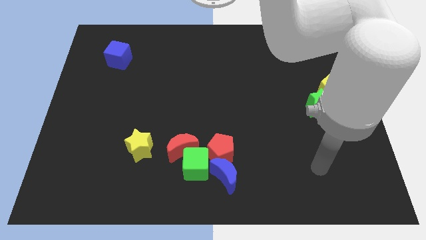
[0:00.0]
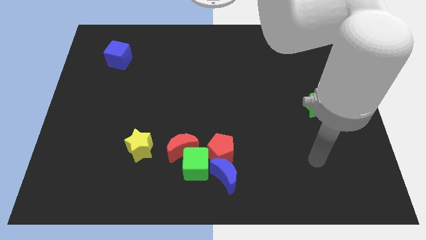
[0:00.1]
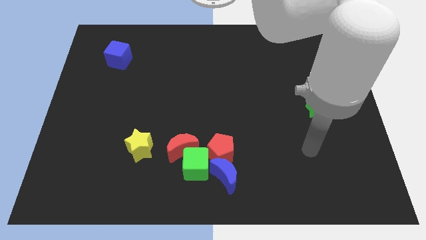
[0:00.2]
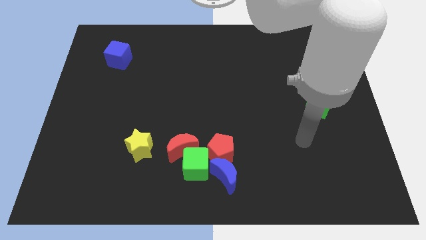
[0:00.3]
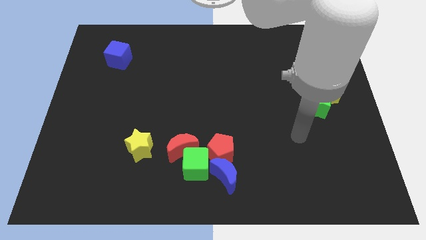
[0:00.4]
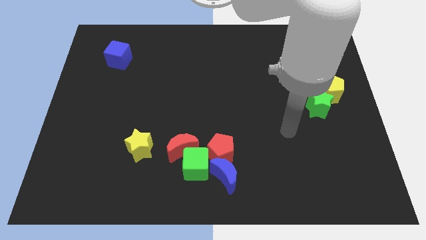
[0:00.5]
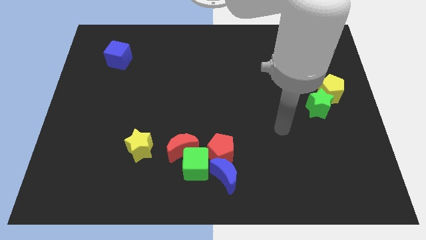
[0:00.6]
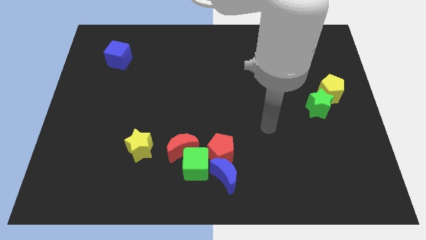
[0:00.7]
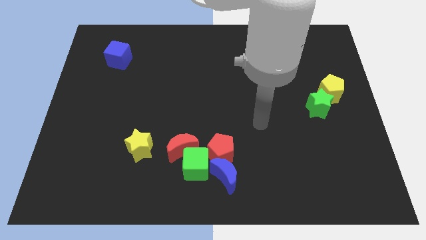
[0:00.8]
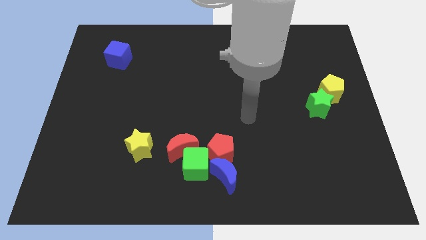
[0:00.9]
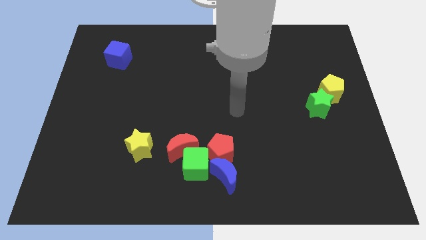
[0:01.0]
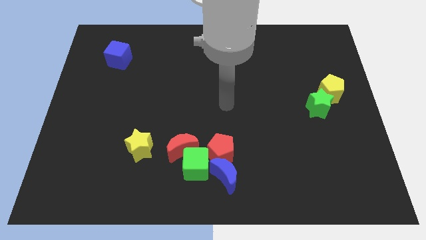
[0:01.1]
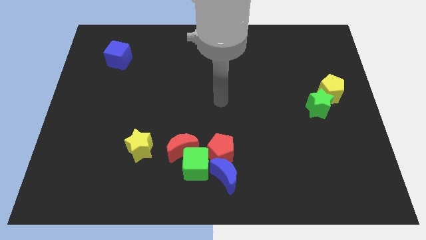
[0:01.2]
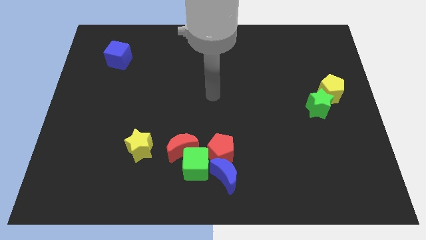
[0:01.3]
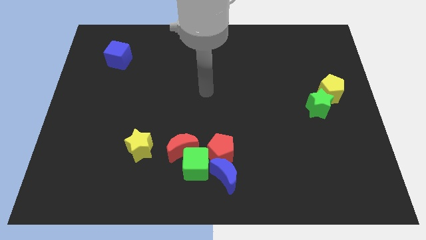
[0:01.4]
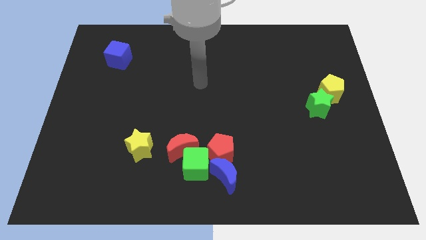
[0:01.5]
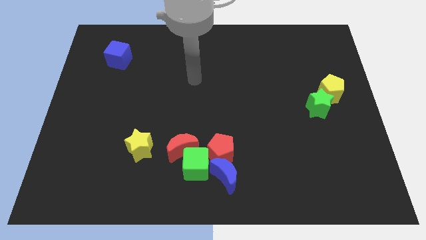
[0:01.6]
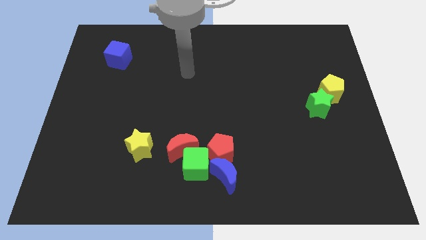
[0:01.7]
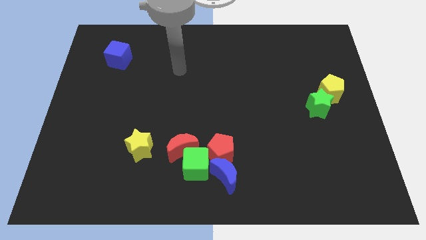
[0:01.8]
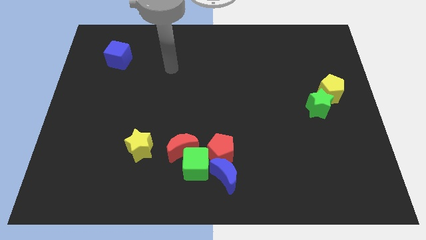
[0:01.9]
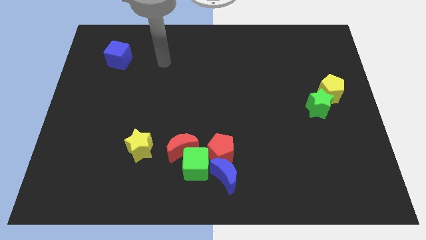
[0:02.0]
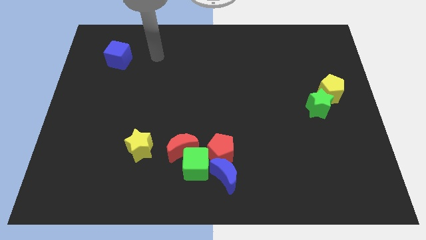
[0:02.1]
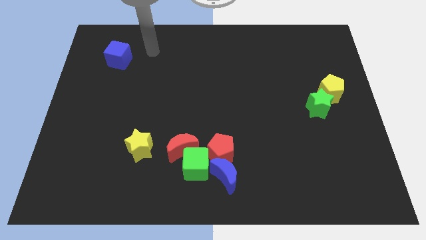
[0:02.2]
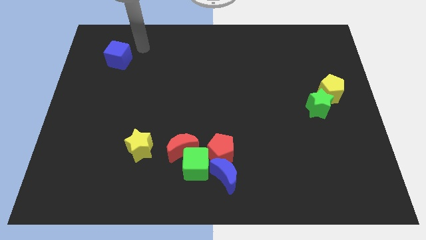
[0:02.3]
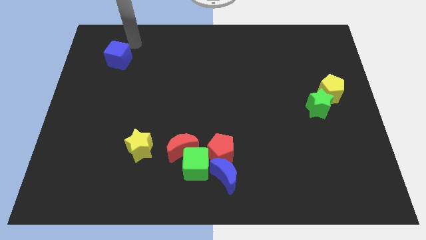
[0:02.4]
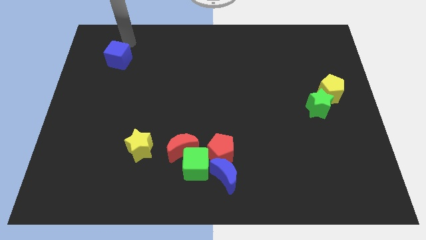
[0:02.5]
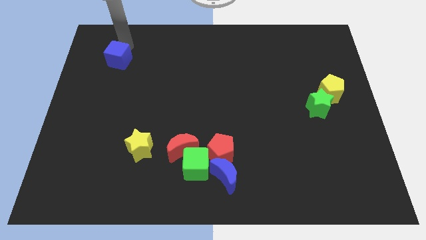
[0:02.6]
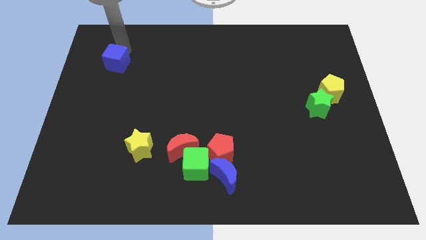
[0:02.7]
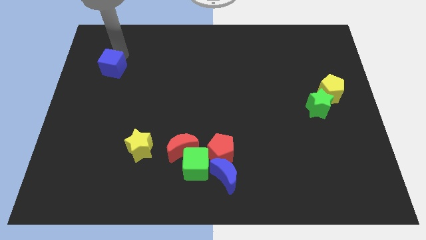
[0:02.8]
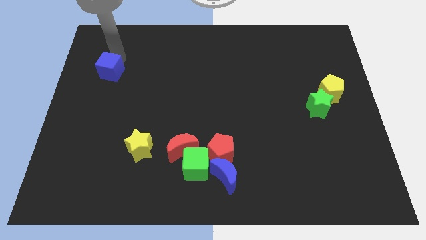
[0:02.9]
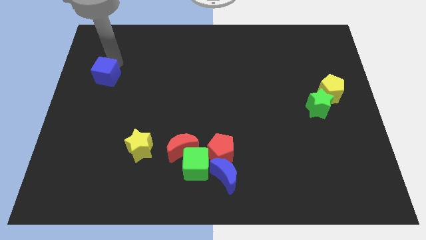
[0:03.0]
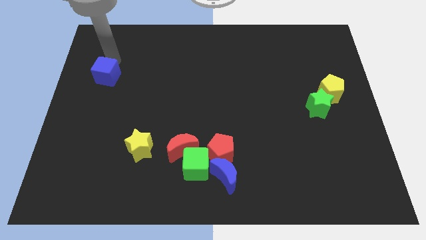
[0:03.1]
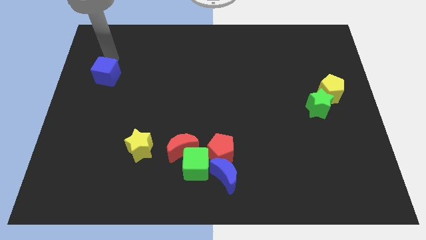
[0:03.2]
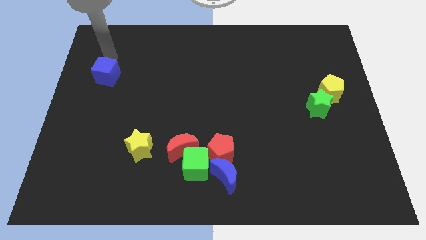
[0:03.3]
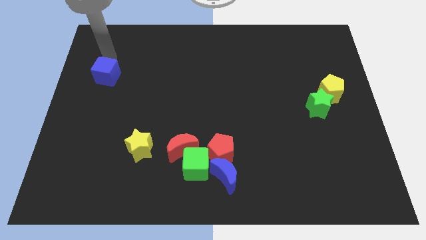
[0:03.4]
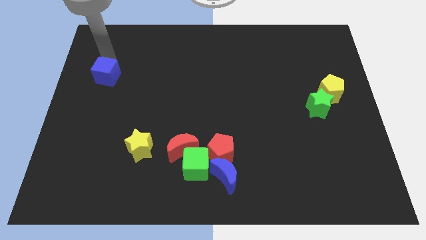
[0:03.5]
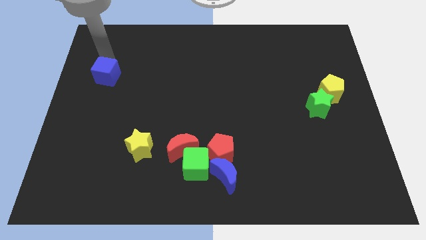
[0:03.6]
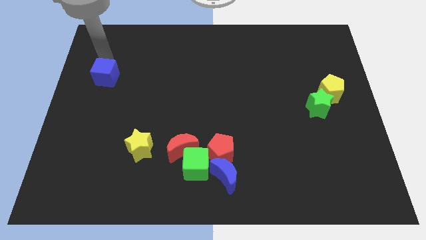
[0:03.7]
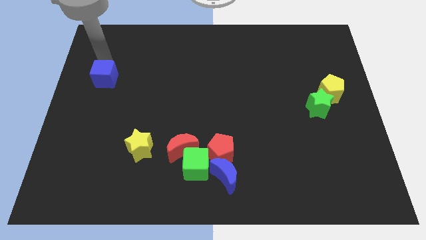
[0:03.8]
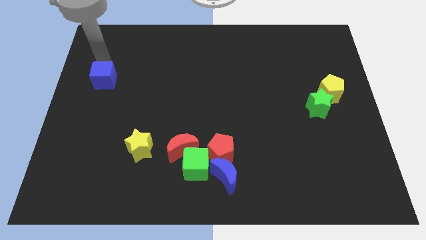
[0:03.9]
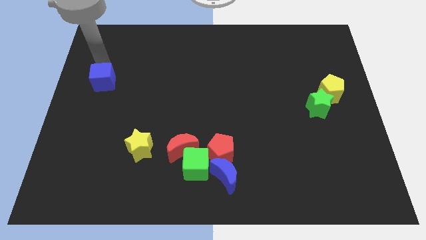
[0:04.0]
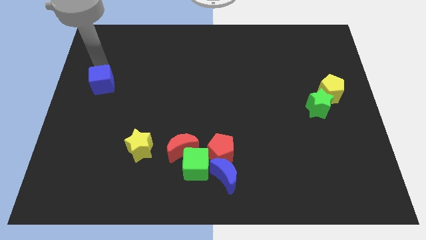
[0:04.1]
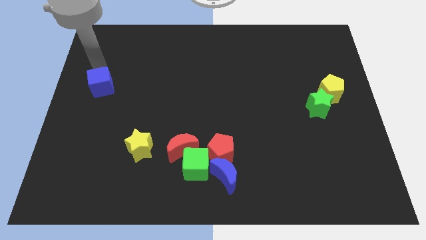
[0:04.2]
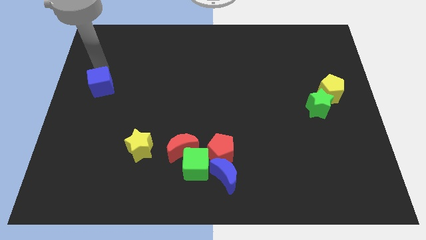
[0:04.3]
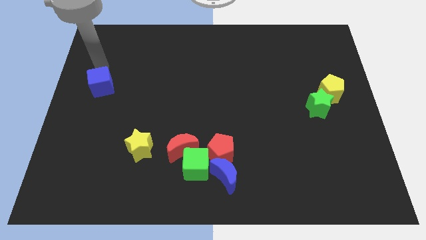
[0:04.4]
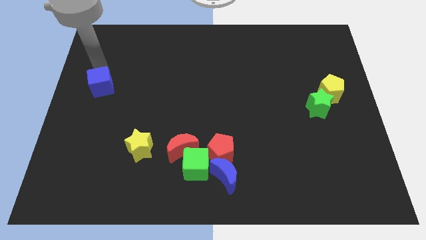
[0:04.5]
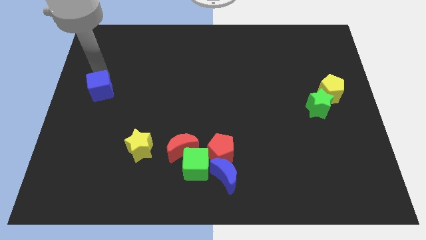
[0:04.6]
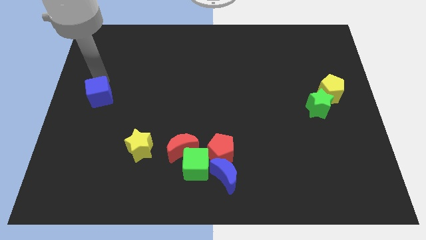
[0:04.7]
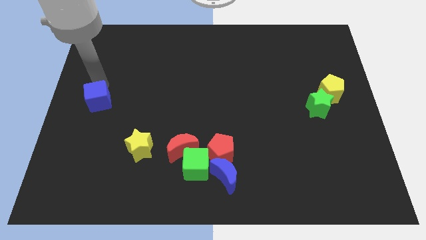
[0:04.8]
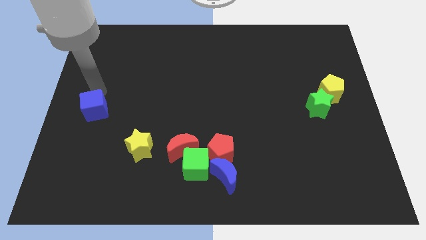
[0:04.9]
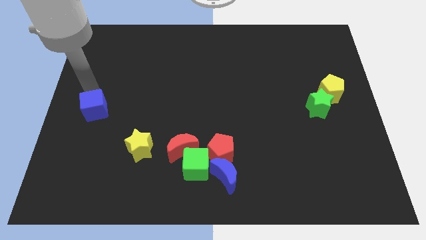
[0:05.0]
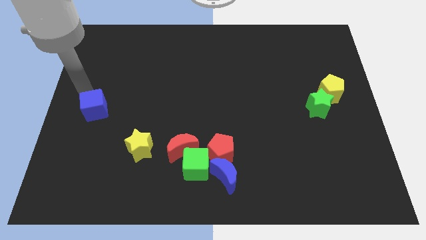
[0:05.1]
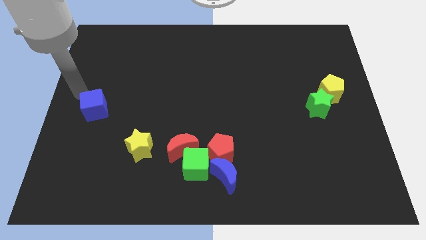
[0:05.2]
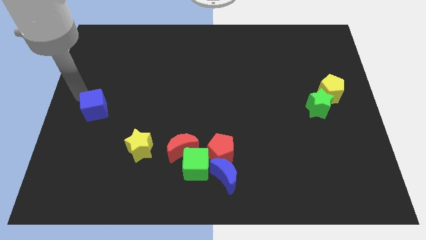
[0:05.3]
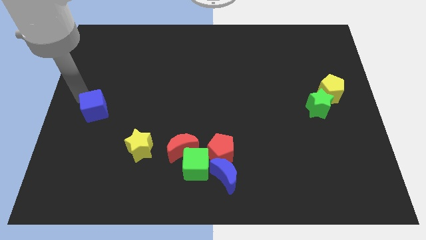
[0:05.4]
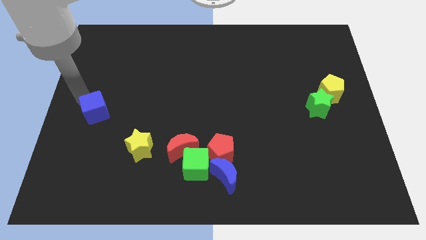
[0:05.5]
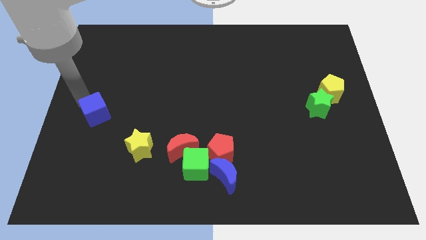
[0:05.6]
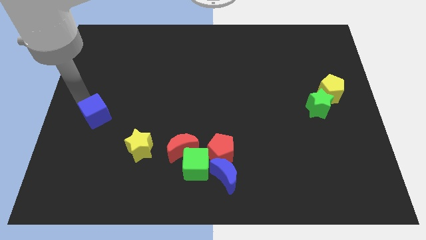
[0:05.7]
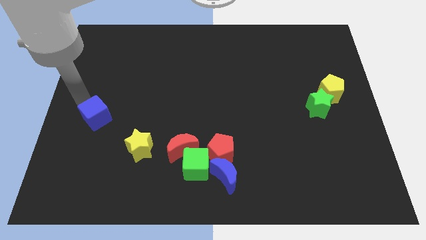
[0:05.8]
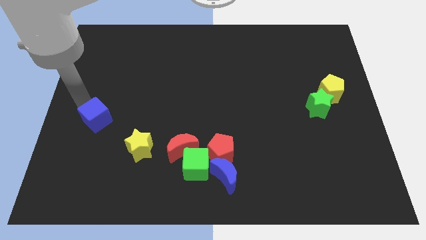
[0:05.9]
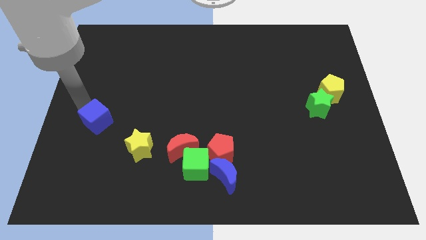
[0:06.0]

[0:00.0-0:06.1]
move the blue cube down

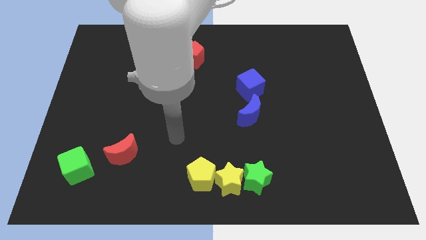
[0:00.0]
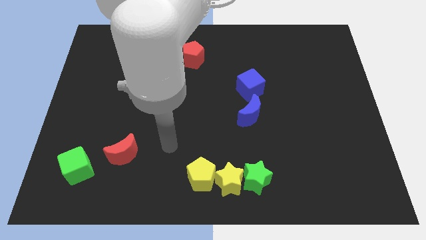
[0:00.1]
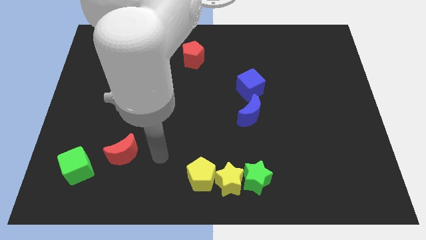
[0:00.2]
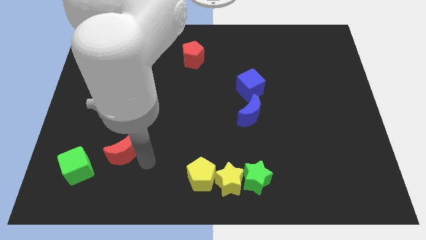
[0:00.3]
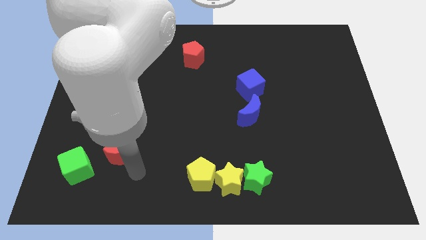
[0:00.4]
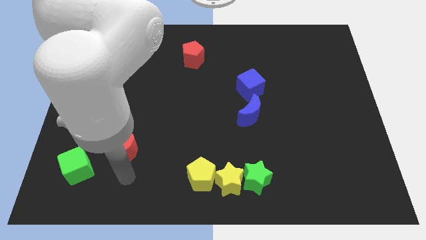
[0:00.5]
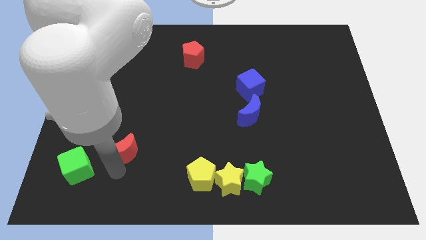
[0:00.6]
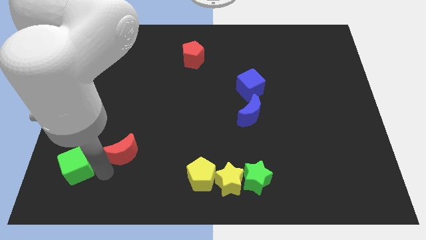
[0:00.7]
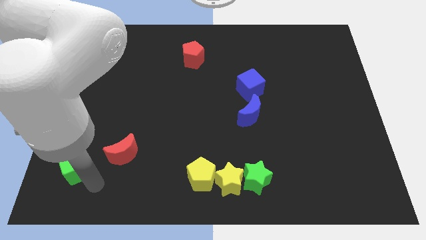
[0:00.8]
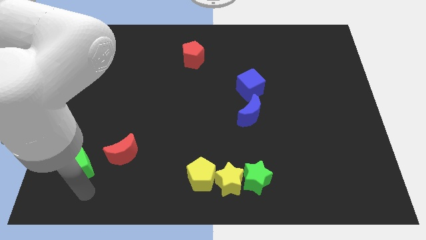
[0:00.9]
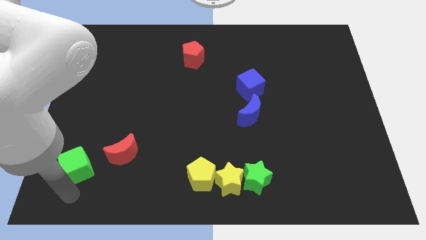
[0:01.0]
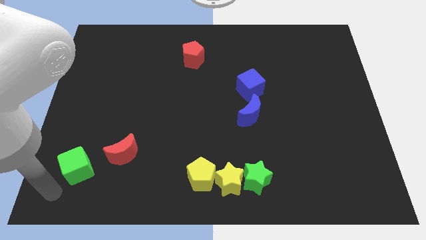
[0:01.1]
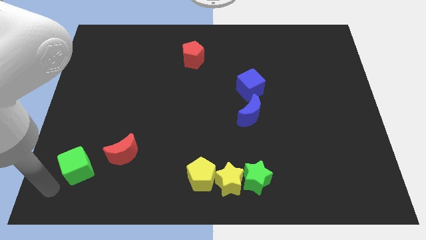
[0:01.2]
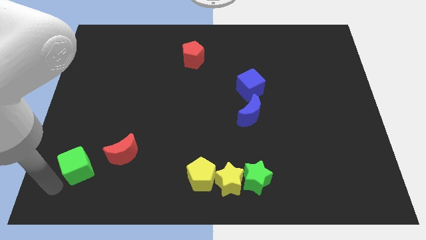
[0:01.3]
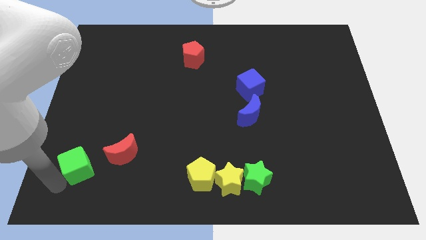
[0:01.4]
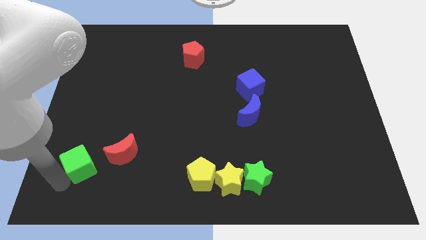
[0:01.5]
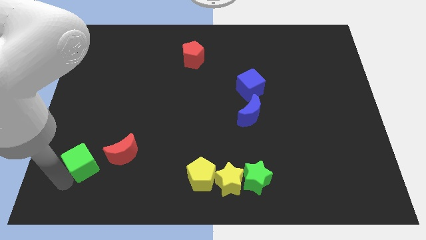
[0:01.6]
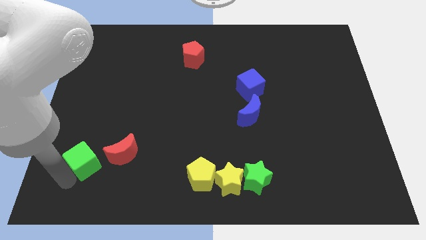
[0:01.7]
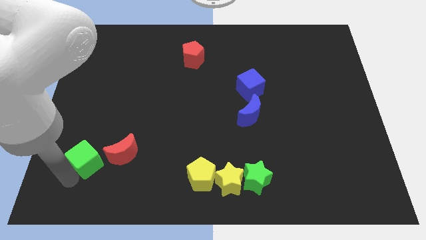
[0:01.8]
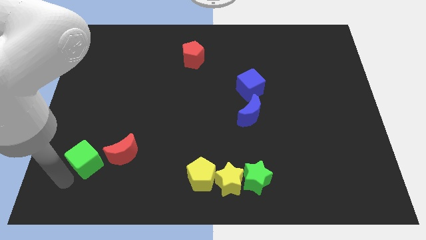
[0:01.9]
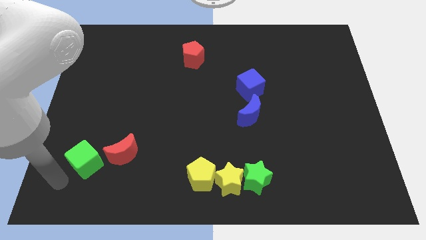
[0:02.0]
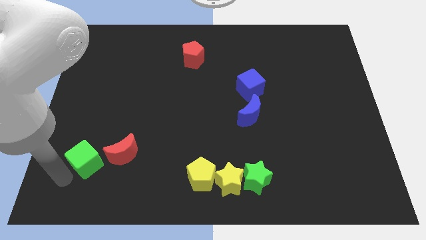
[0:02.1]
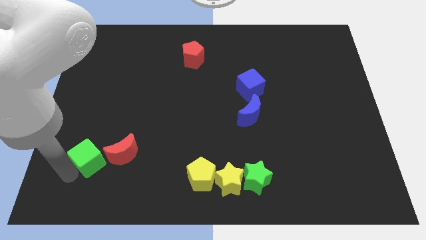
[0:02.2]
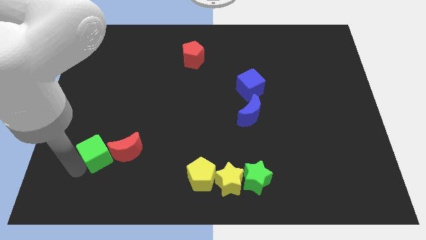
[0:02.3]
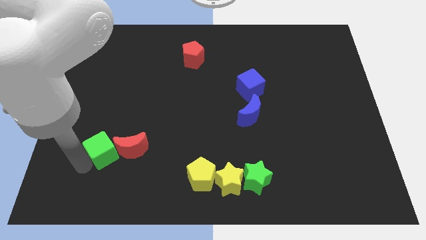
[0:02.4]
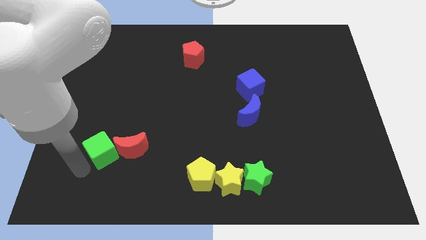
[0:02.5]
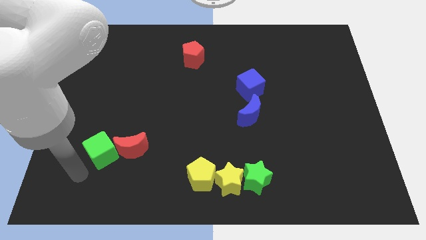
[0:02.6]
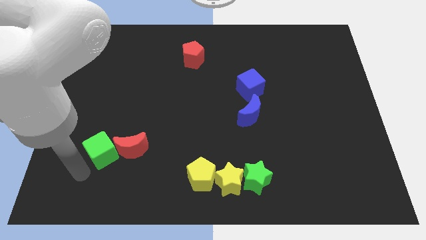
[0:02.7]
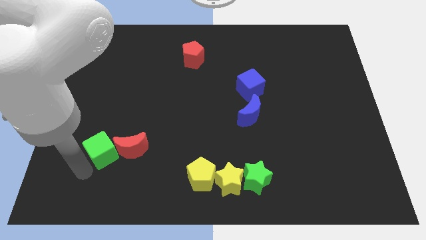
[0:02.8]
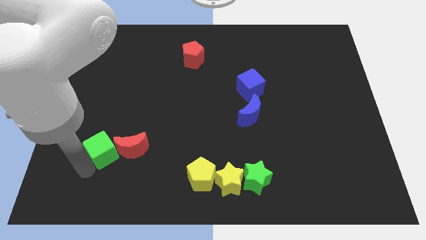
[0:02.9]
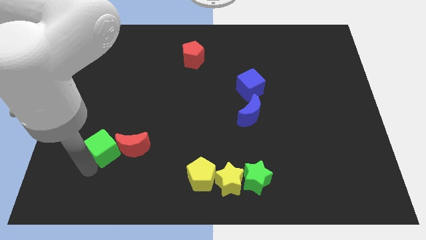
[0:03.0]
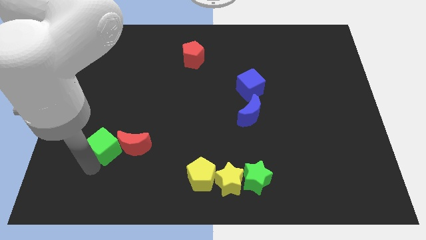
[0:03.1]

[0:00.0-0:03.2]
move the green cube a bit up and to the right diagonally
